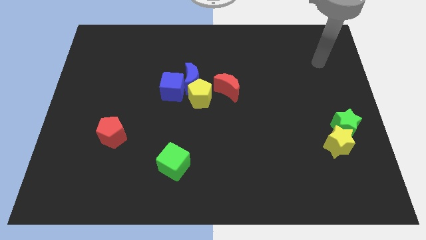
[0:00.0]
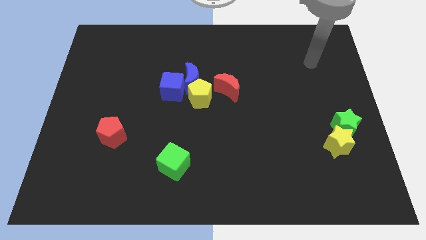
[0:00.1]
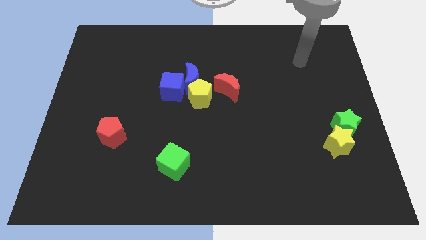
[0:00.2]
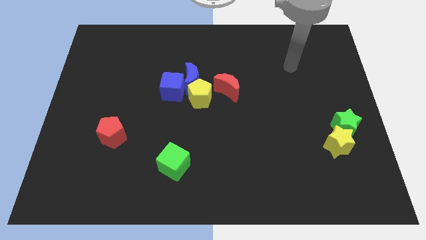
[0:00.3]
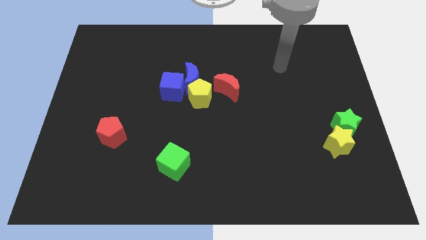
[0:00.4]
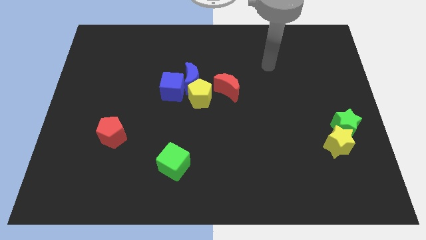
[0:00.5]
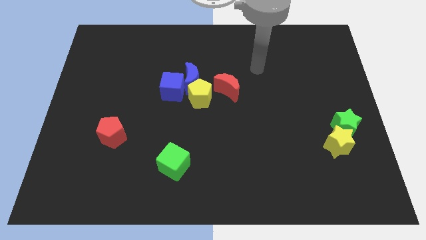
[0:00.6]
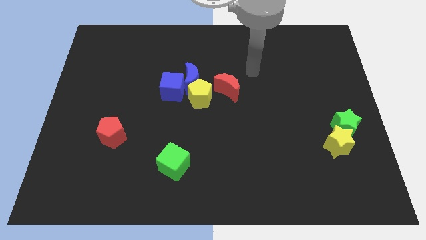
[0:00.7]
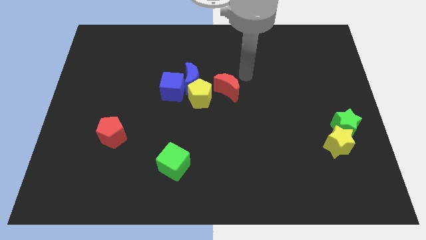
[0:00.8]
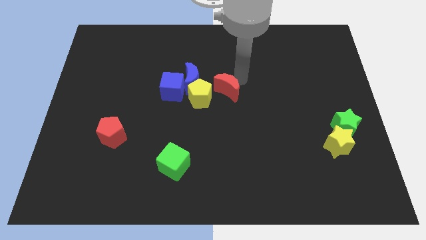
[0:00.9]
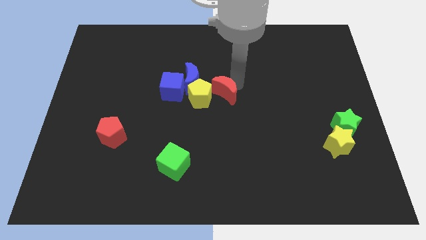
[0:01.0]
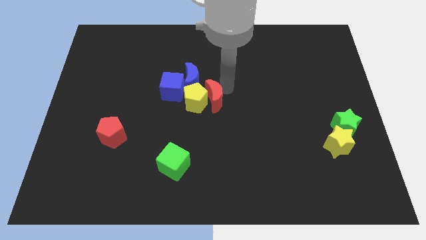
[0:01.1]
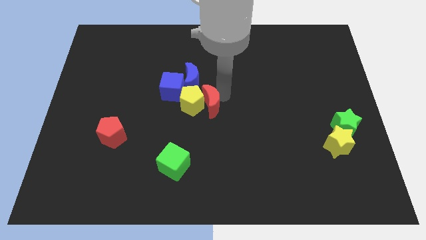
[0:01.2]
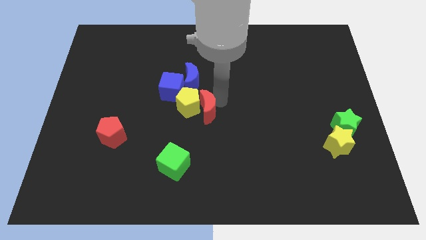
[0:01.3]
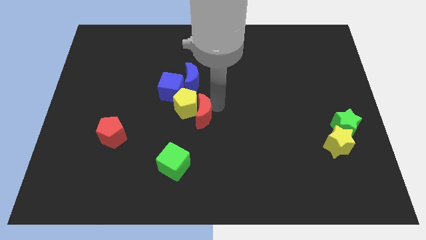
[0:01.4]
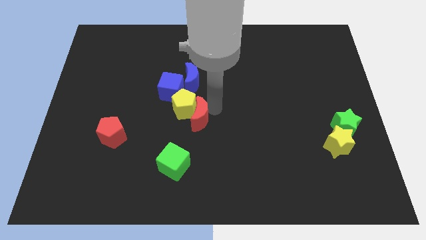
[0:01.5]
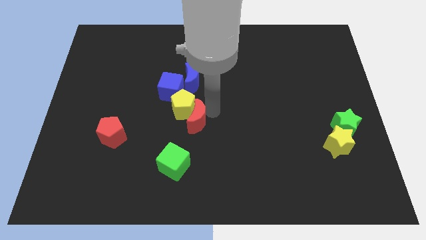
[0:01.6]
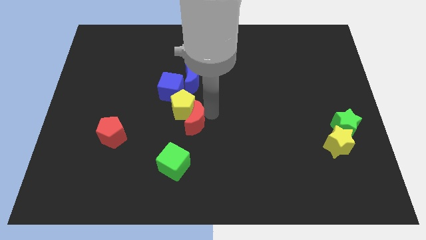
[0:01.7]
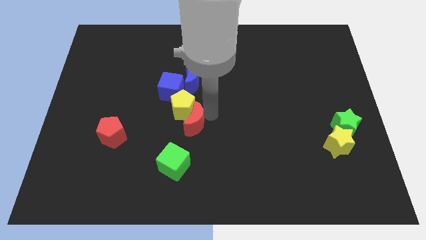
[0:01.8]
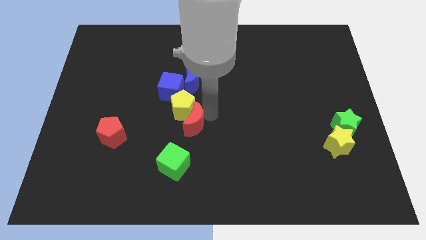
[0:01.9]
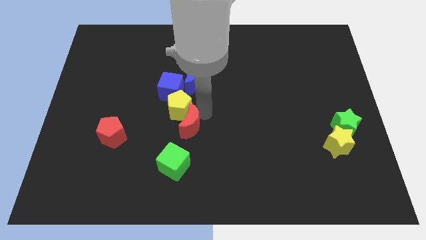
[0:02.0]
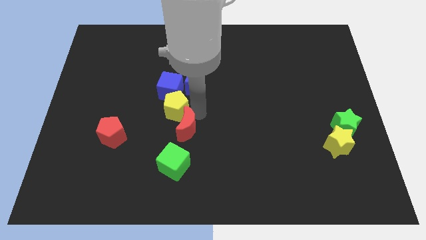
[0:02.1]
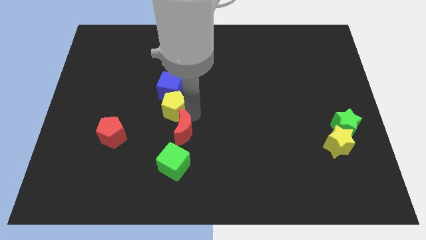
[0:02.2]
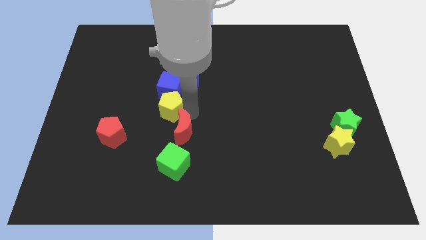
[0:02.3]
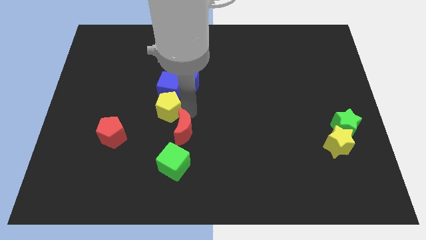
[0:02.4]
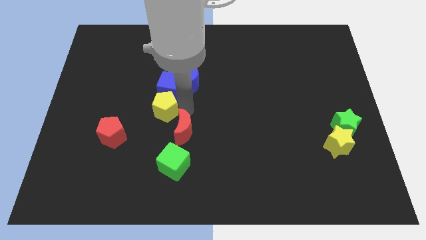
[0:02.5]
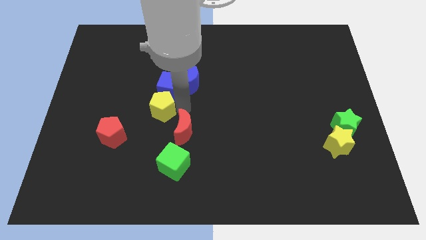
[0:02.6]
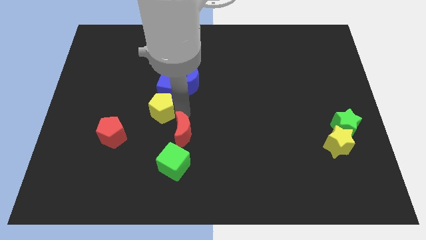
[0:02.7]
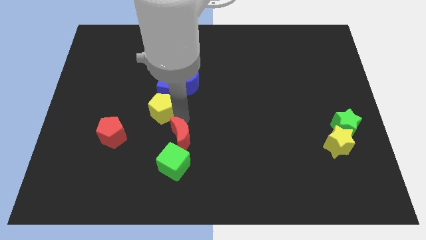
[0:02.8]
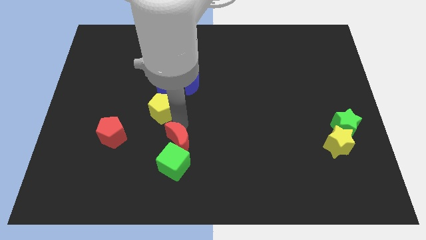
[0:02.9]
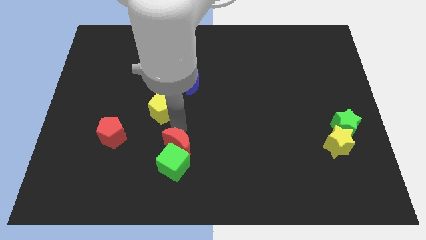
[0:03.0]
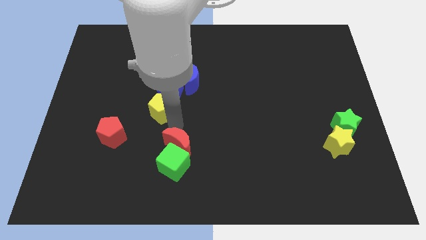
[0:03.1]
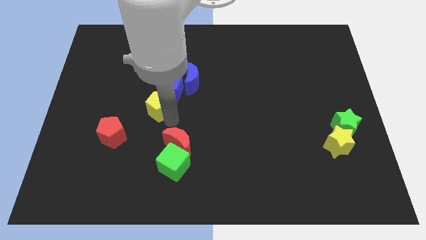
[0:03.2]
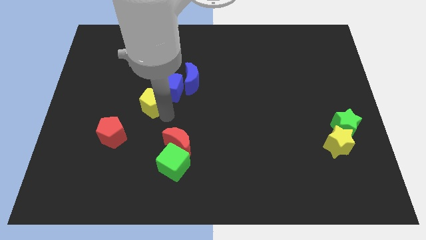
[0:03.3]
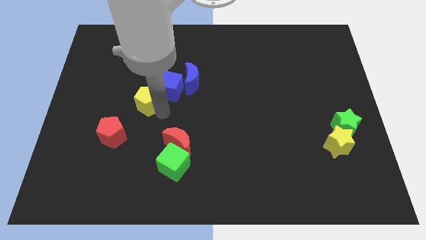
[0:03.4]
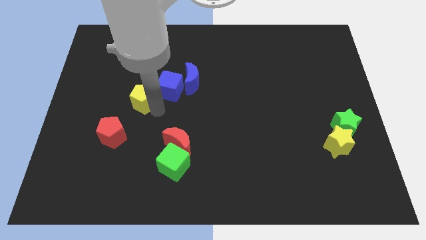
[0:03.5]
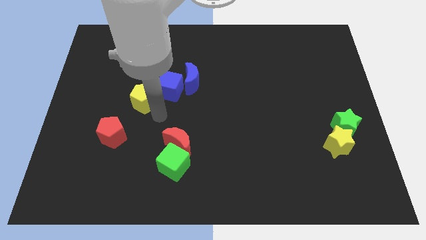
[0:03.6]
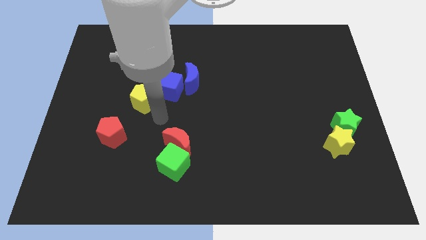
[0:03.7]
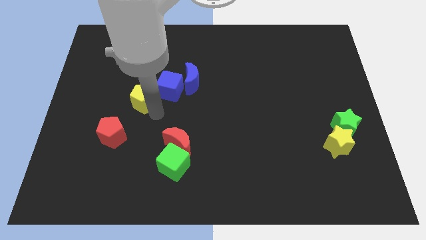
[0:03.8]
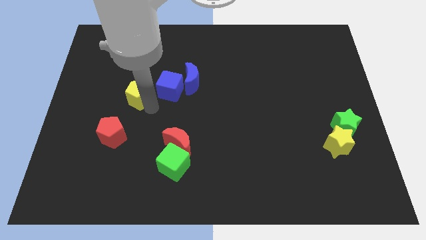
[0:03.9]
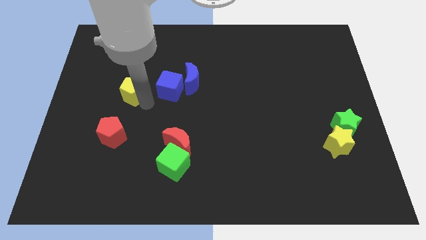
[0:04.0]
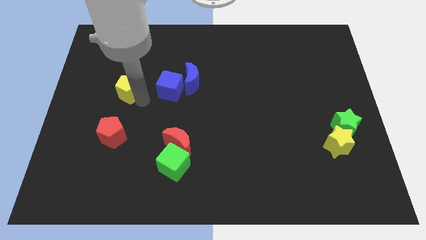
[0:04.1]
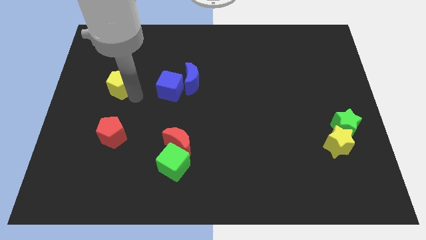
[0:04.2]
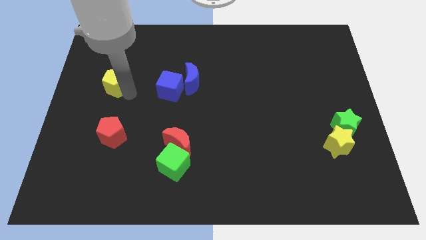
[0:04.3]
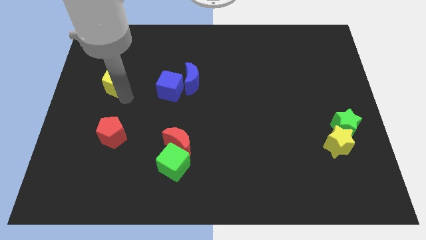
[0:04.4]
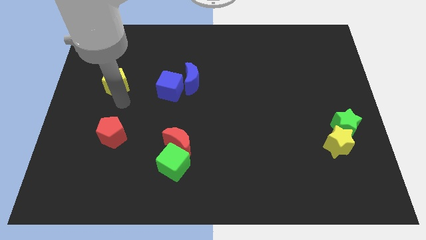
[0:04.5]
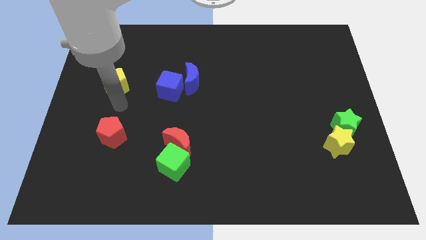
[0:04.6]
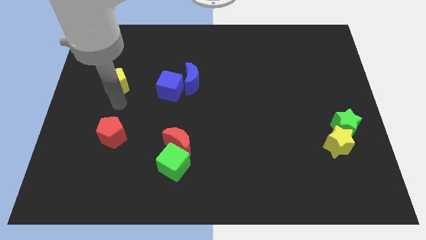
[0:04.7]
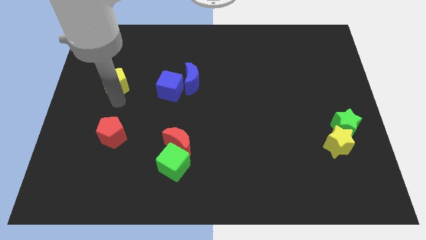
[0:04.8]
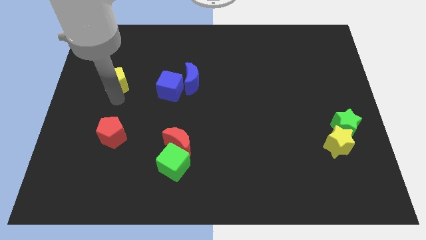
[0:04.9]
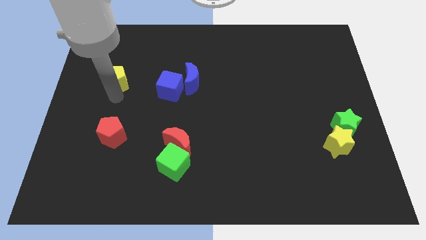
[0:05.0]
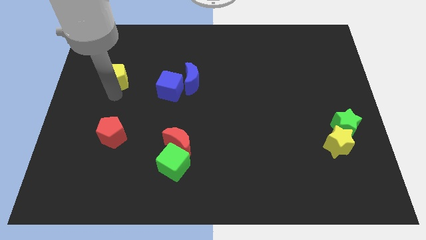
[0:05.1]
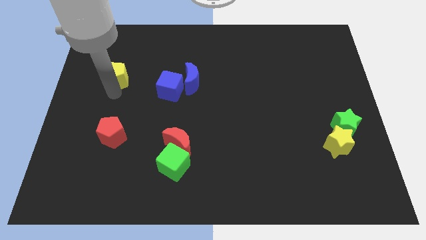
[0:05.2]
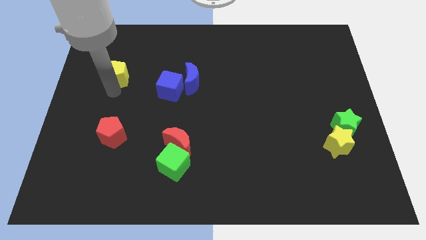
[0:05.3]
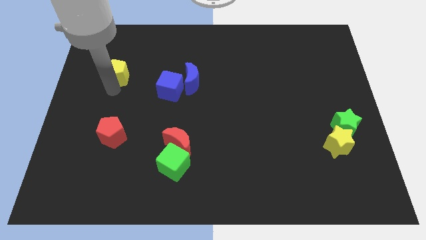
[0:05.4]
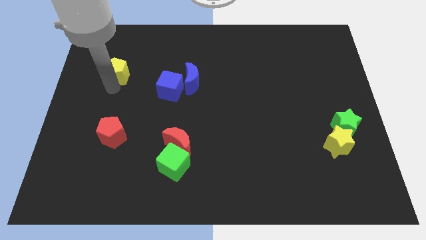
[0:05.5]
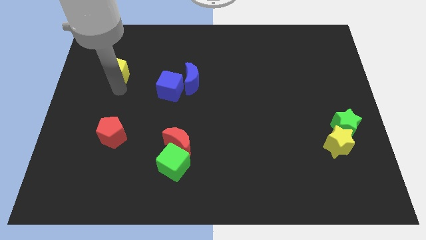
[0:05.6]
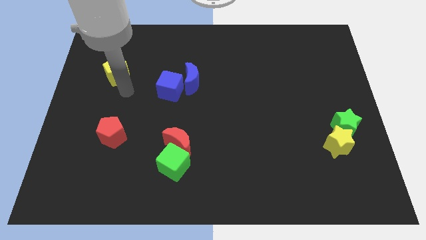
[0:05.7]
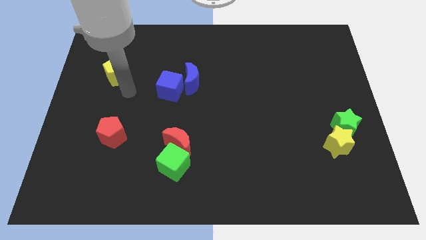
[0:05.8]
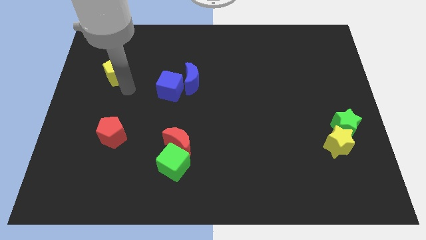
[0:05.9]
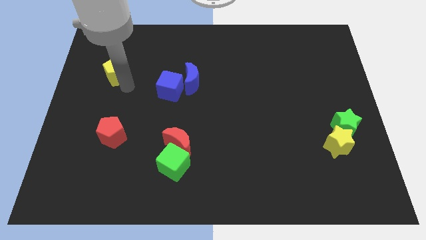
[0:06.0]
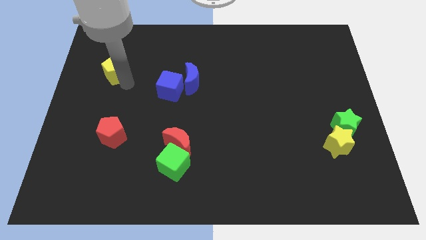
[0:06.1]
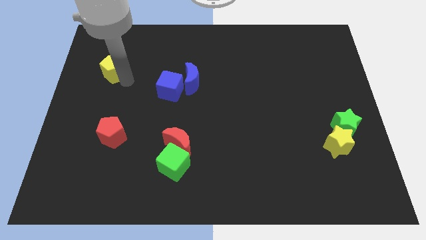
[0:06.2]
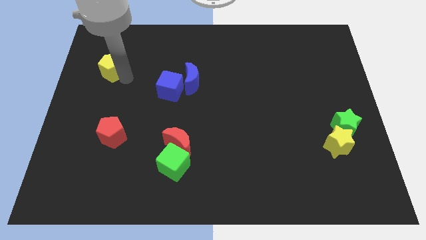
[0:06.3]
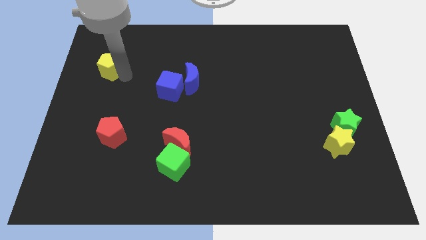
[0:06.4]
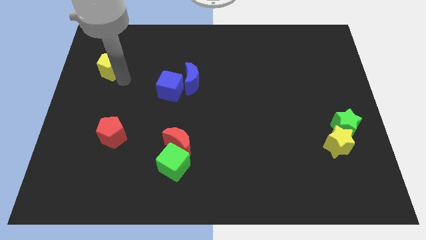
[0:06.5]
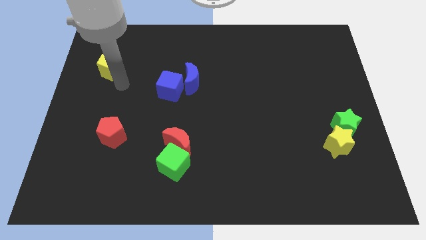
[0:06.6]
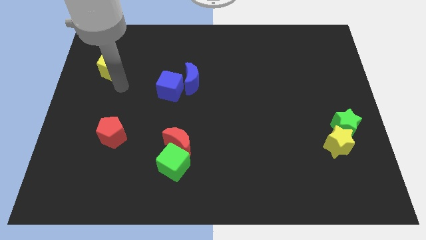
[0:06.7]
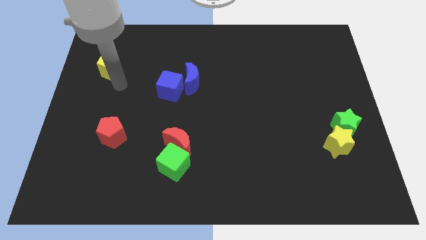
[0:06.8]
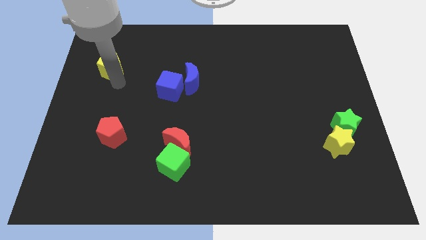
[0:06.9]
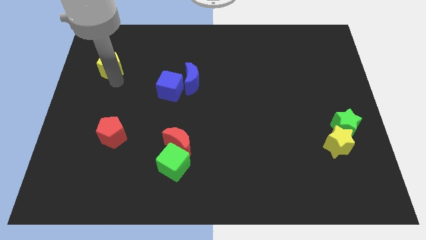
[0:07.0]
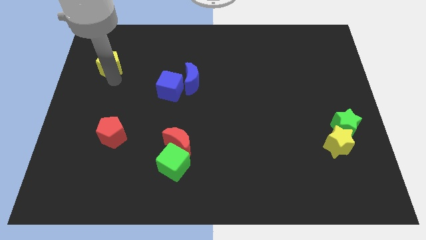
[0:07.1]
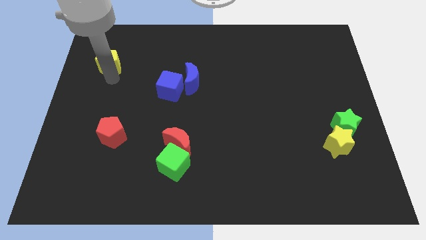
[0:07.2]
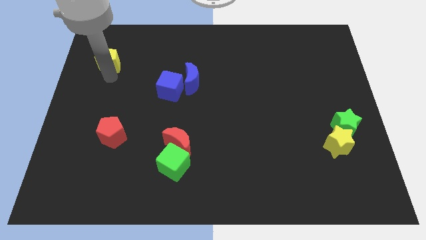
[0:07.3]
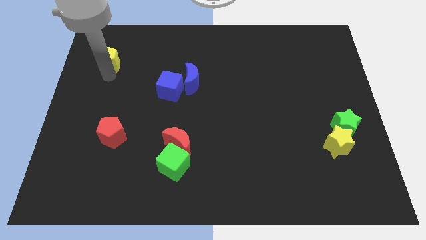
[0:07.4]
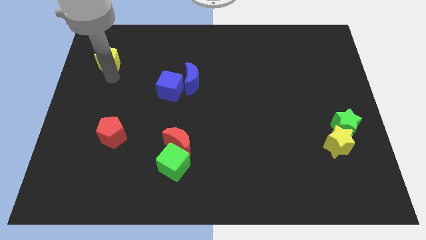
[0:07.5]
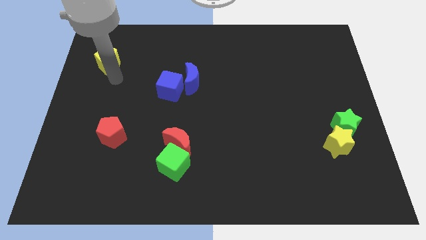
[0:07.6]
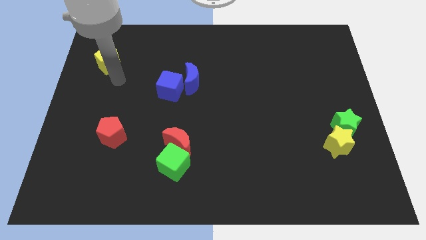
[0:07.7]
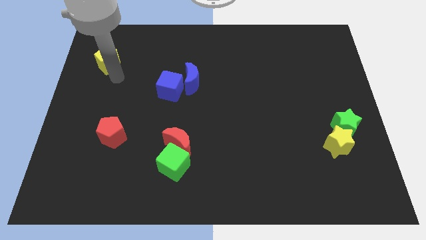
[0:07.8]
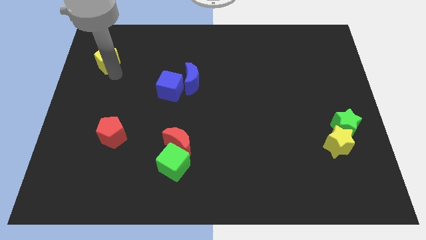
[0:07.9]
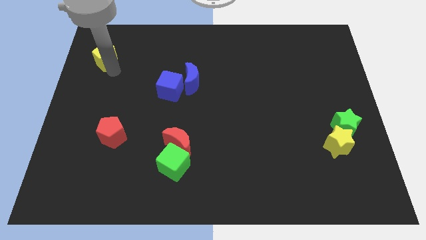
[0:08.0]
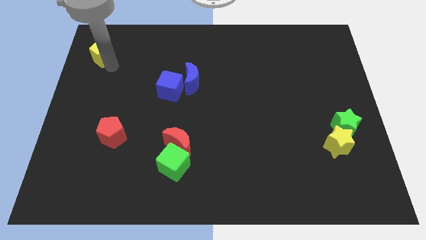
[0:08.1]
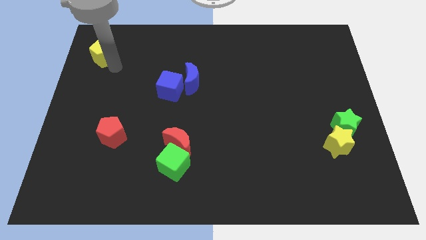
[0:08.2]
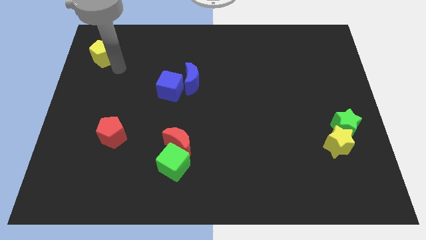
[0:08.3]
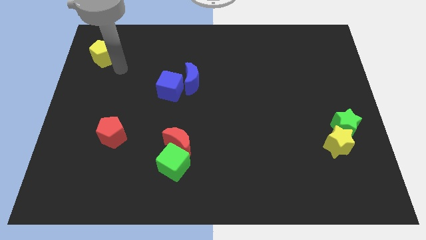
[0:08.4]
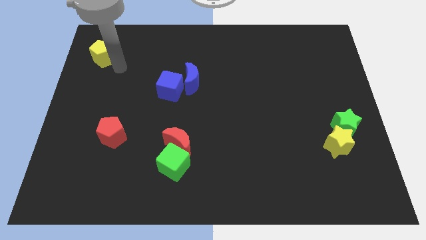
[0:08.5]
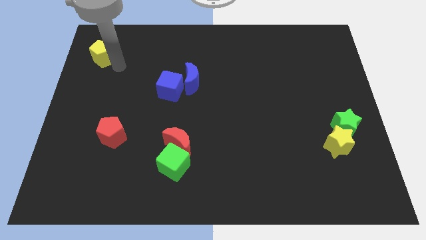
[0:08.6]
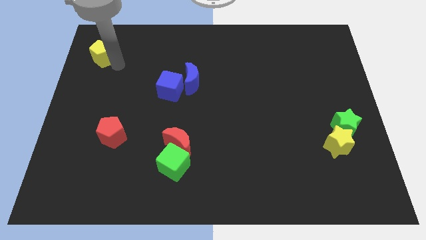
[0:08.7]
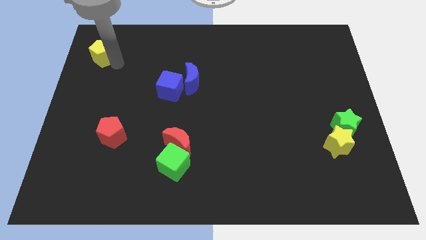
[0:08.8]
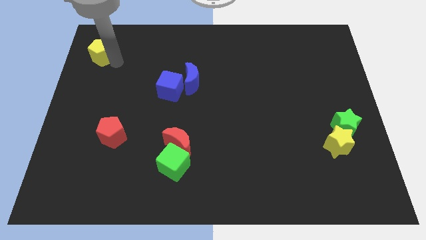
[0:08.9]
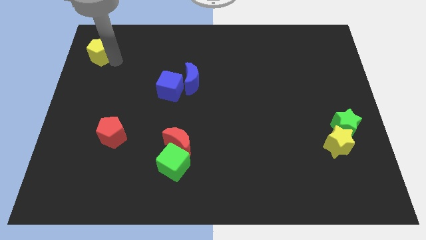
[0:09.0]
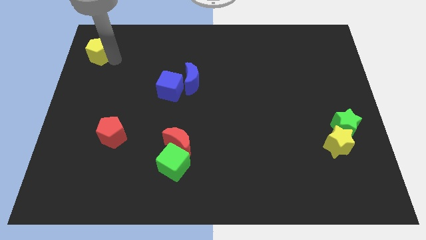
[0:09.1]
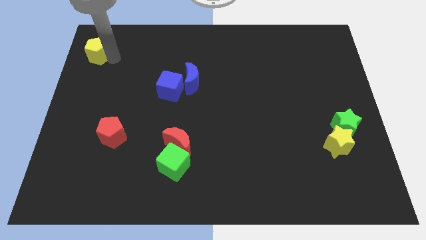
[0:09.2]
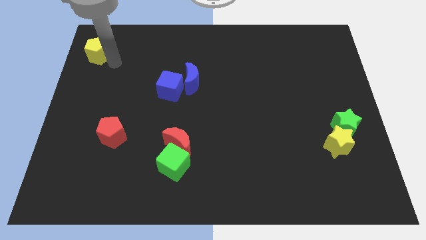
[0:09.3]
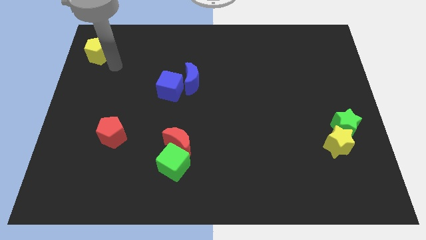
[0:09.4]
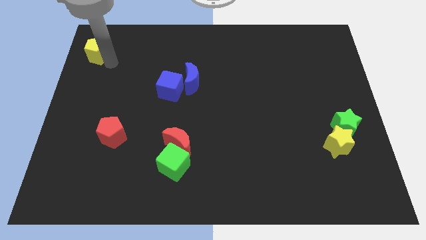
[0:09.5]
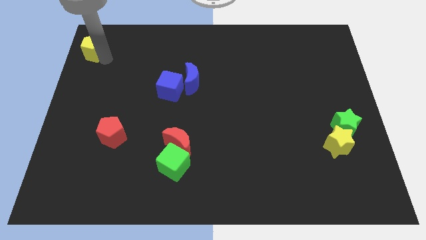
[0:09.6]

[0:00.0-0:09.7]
put the yellow pentagon to the top left of the board
